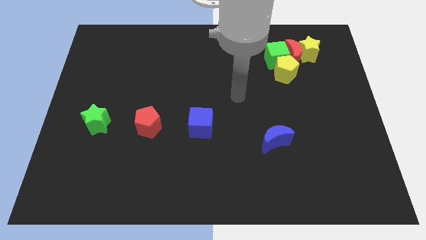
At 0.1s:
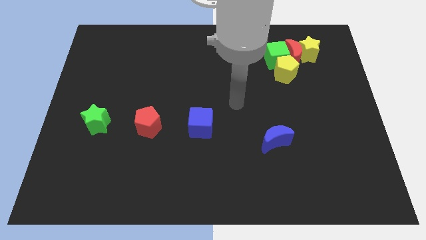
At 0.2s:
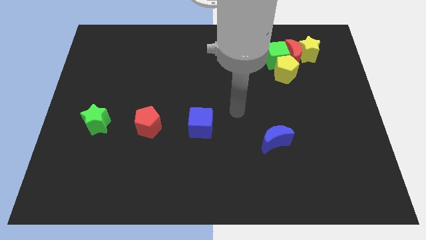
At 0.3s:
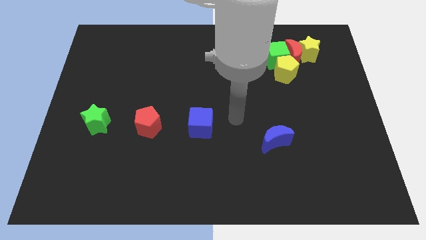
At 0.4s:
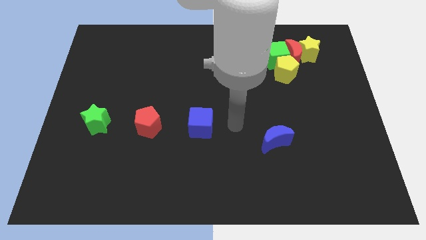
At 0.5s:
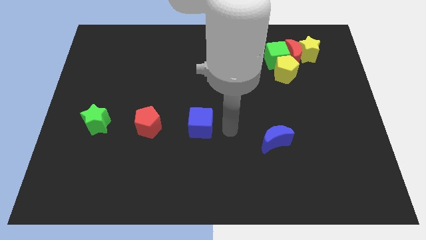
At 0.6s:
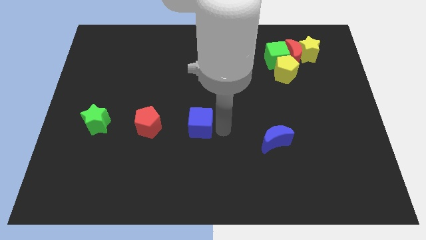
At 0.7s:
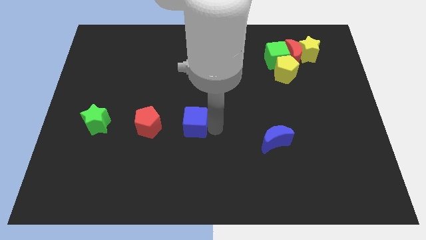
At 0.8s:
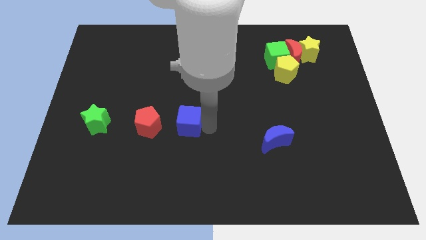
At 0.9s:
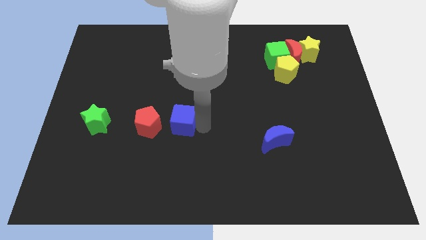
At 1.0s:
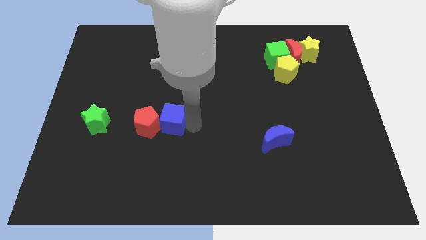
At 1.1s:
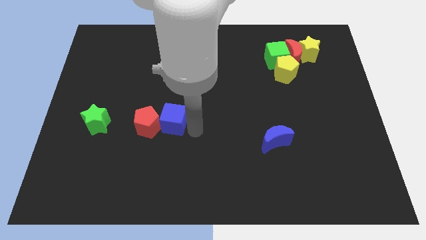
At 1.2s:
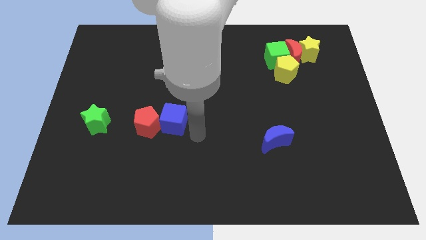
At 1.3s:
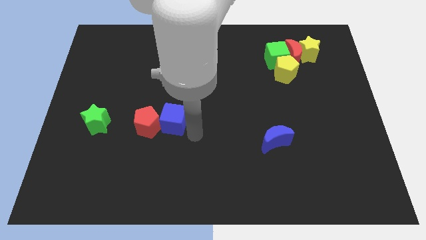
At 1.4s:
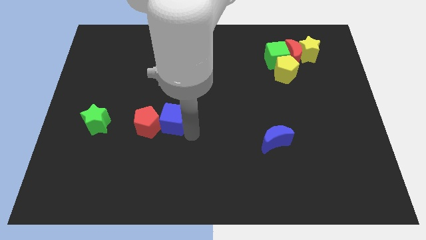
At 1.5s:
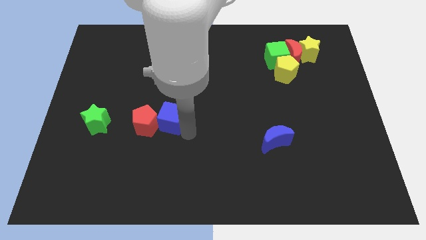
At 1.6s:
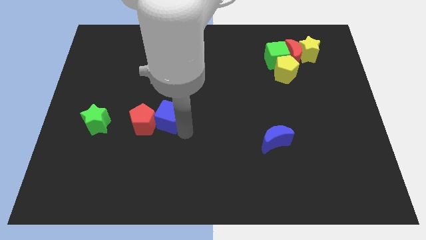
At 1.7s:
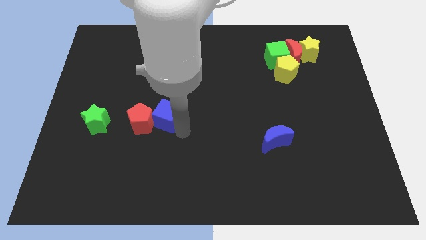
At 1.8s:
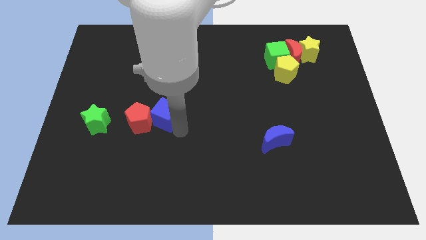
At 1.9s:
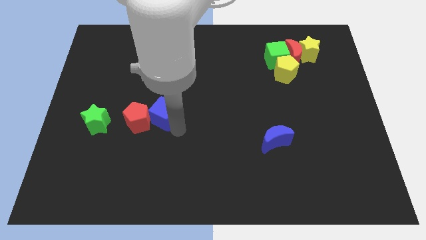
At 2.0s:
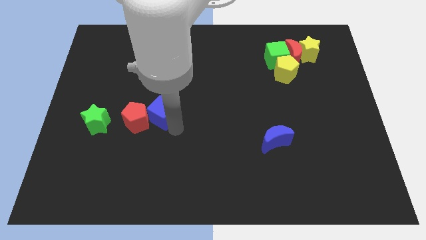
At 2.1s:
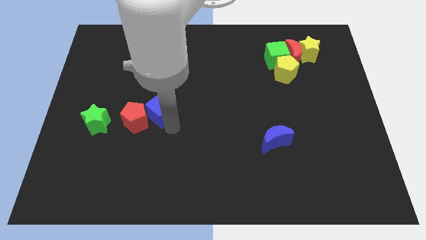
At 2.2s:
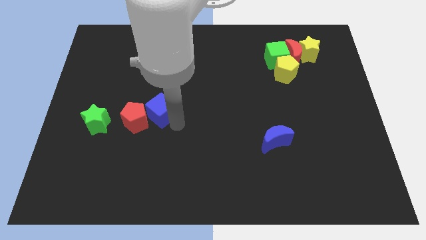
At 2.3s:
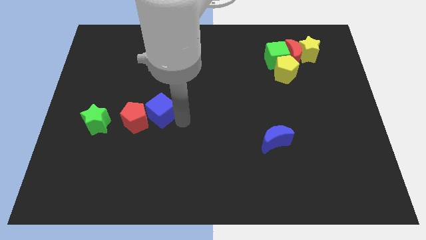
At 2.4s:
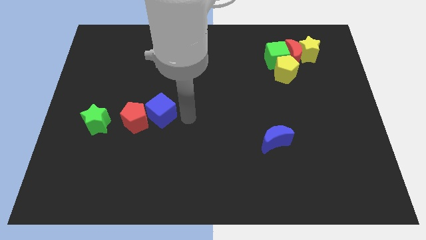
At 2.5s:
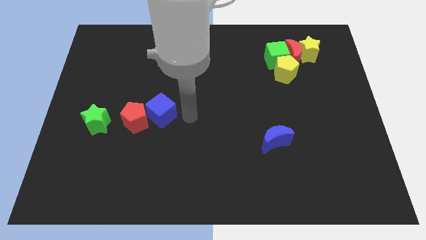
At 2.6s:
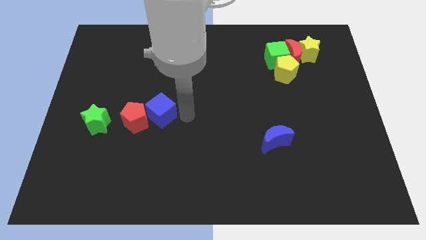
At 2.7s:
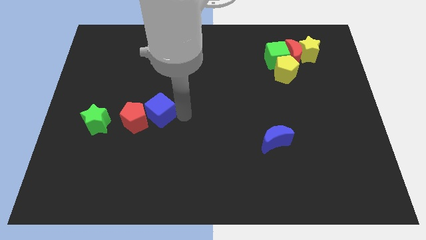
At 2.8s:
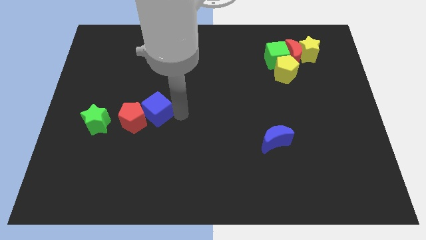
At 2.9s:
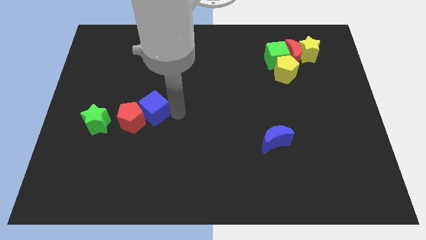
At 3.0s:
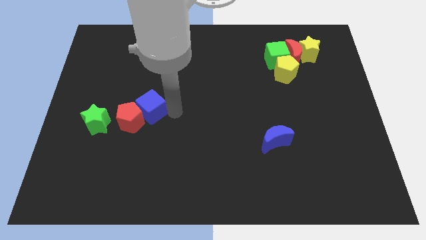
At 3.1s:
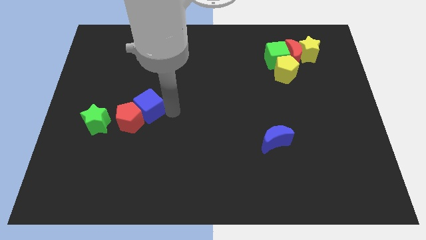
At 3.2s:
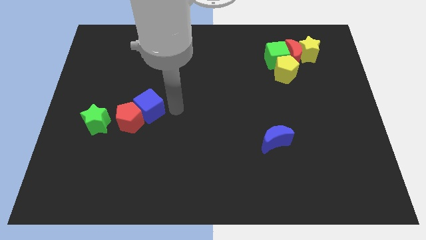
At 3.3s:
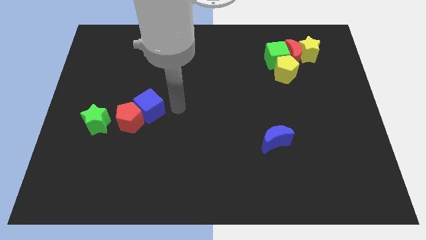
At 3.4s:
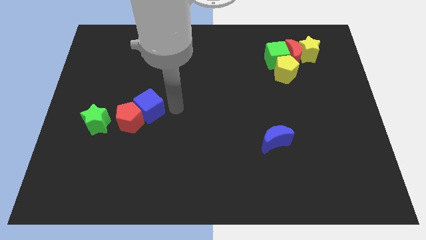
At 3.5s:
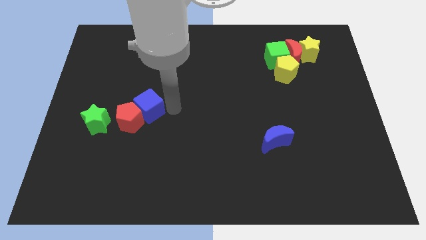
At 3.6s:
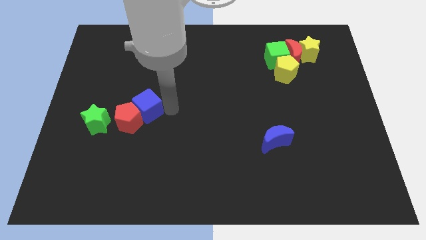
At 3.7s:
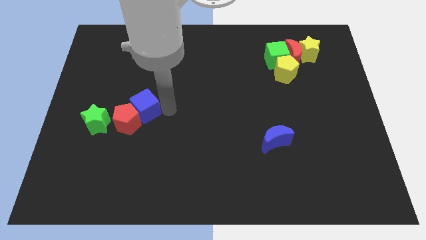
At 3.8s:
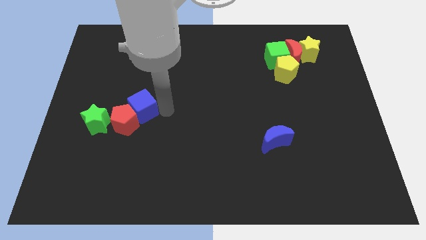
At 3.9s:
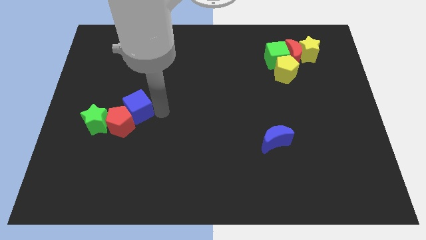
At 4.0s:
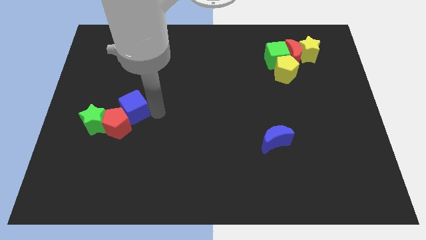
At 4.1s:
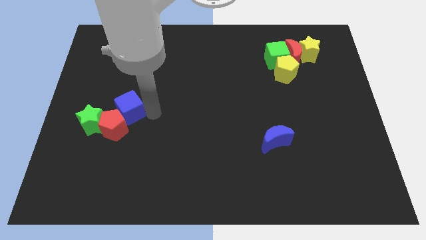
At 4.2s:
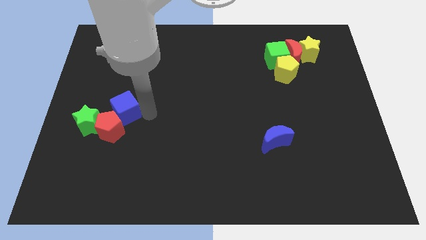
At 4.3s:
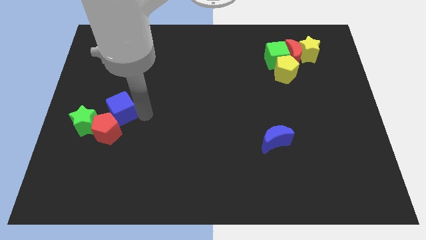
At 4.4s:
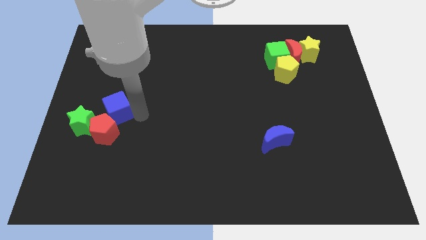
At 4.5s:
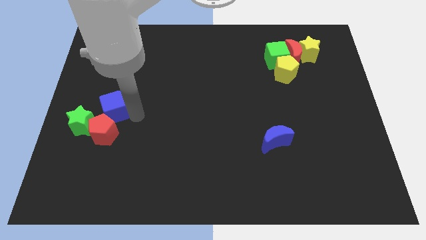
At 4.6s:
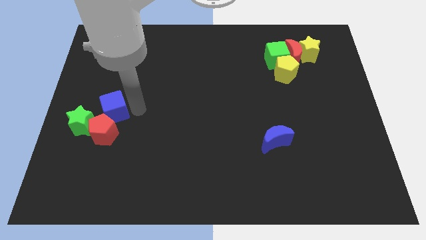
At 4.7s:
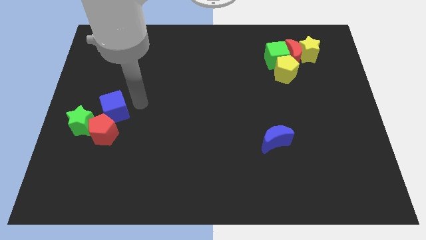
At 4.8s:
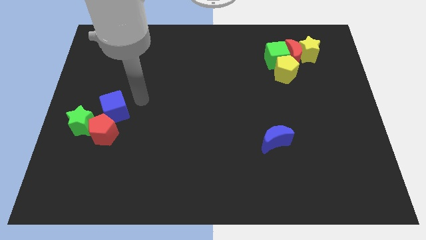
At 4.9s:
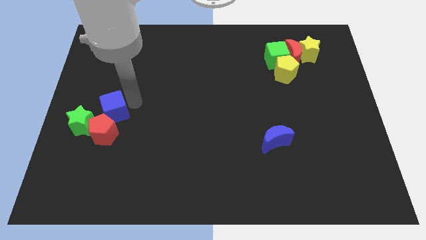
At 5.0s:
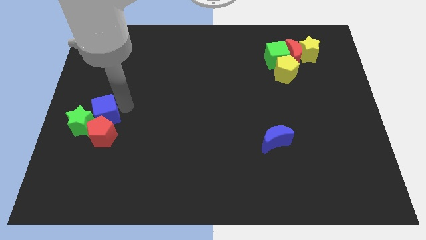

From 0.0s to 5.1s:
slide the blue cube to the green star

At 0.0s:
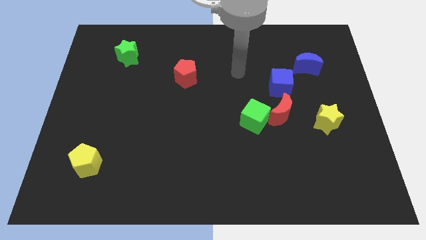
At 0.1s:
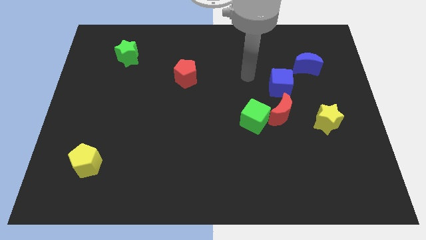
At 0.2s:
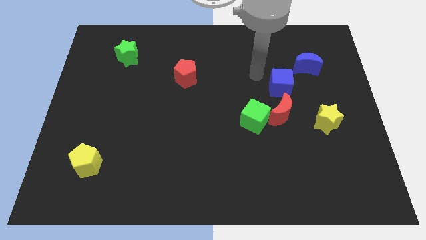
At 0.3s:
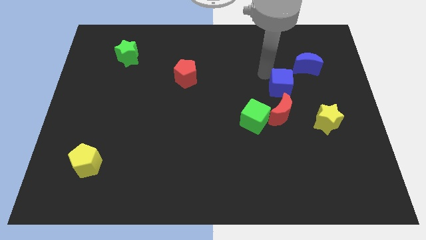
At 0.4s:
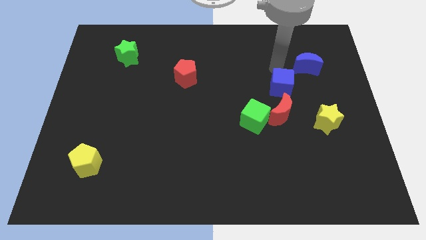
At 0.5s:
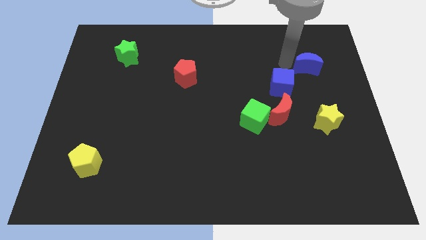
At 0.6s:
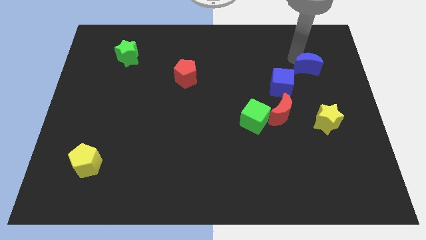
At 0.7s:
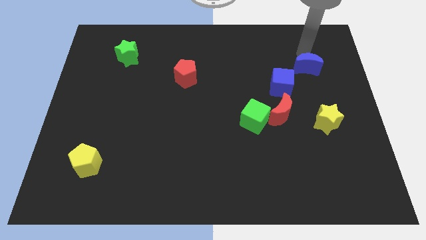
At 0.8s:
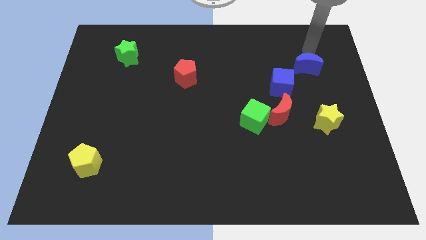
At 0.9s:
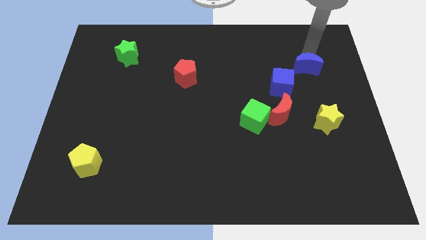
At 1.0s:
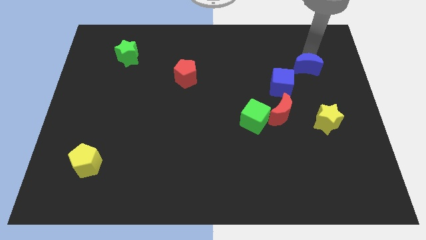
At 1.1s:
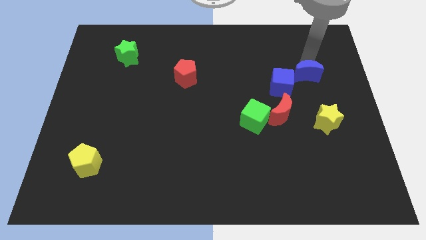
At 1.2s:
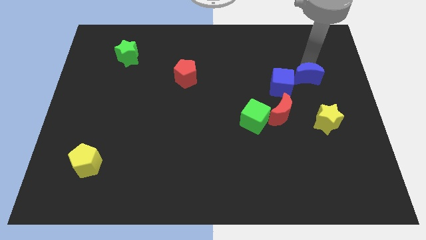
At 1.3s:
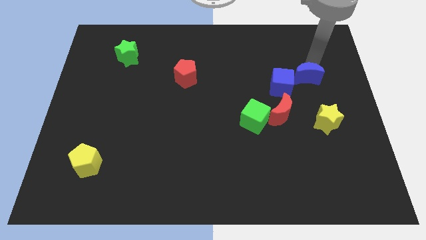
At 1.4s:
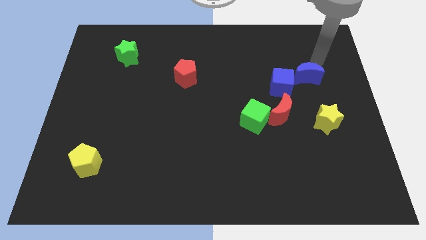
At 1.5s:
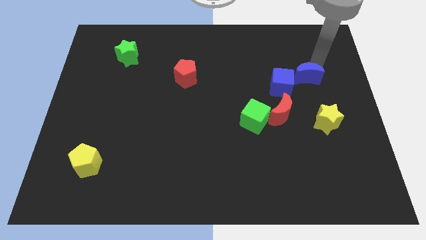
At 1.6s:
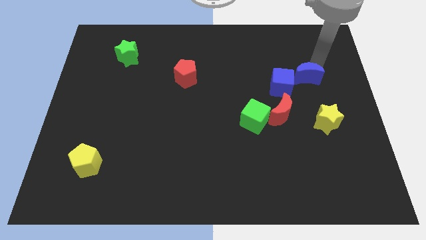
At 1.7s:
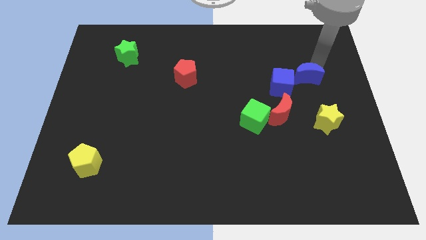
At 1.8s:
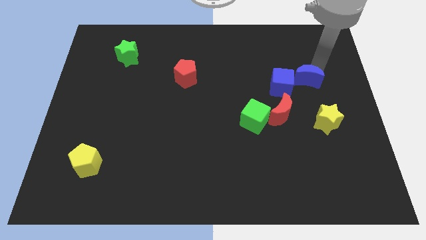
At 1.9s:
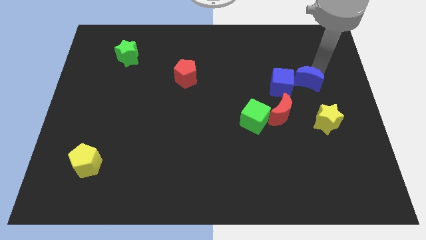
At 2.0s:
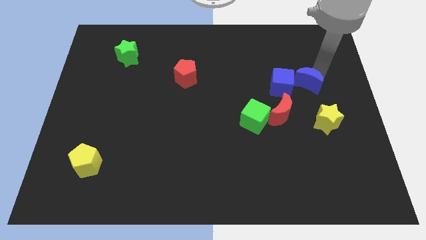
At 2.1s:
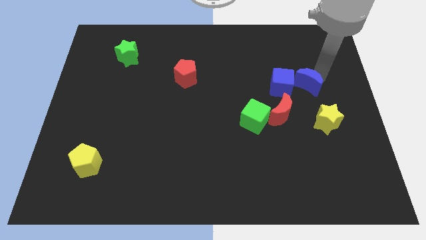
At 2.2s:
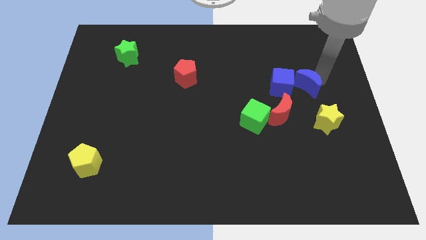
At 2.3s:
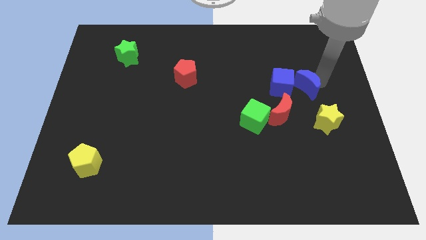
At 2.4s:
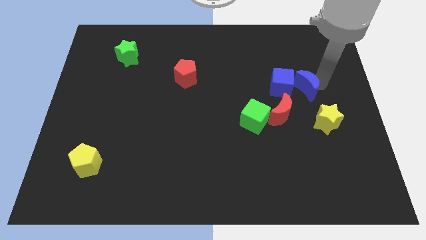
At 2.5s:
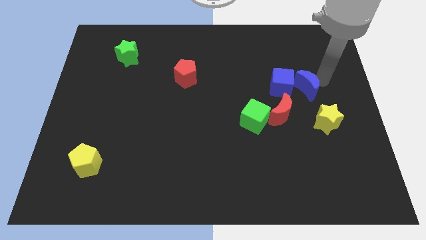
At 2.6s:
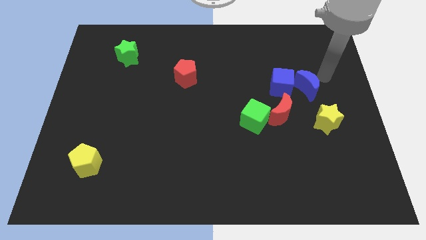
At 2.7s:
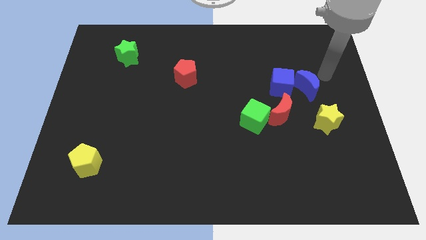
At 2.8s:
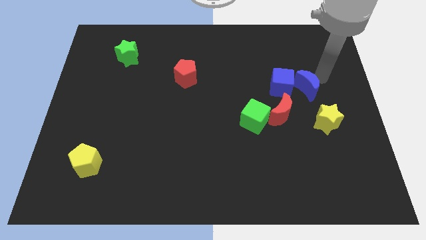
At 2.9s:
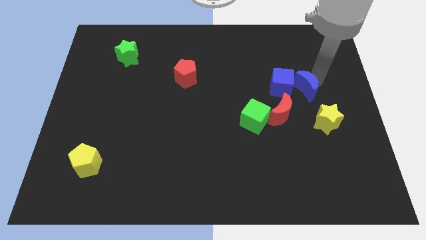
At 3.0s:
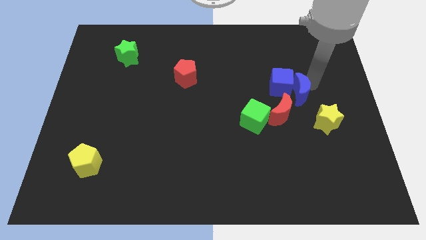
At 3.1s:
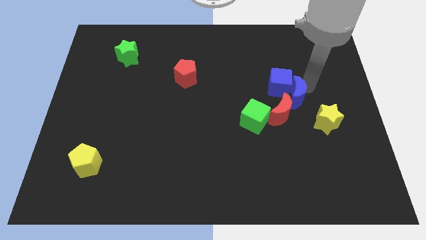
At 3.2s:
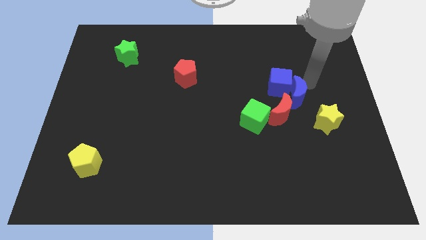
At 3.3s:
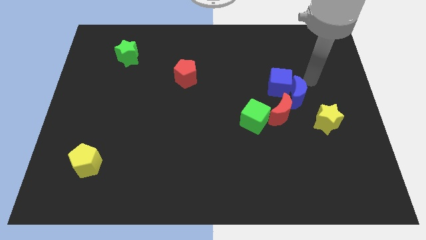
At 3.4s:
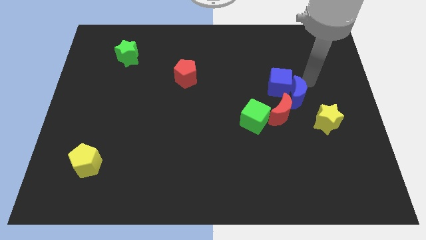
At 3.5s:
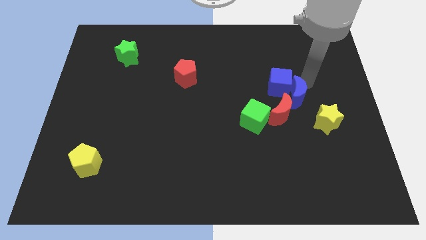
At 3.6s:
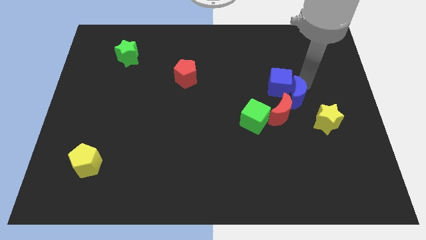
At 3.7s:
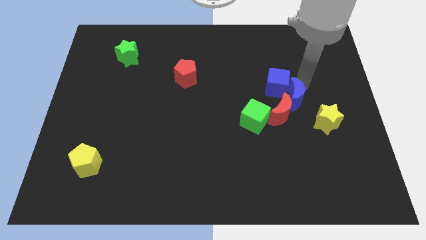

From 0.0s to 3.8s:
slide the blue moon towards the red moon
